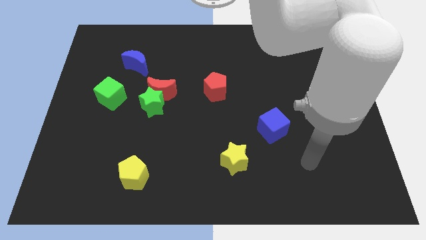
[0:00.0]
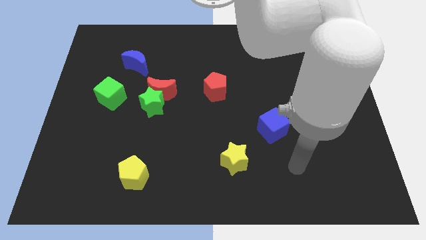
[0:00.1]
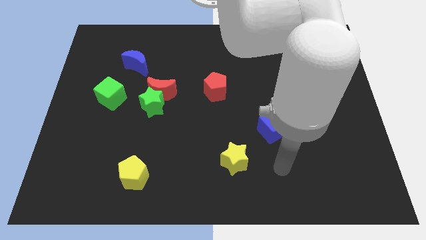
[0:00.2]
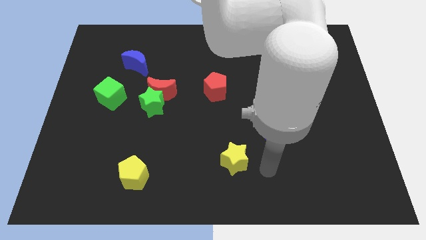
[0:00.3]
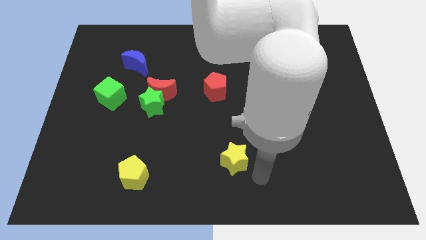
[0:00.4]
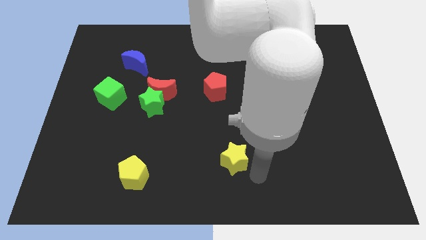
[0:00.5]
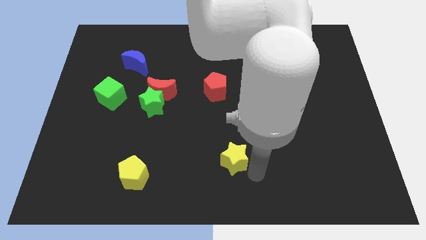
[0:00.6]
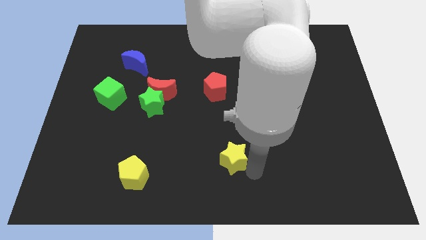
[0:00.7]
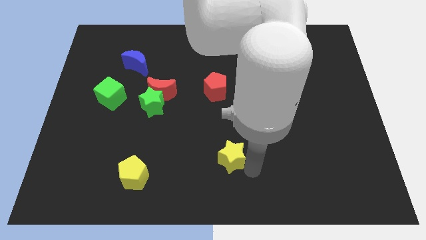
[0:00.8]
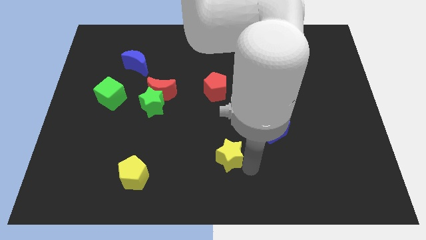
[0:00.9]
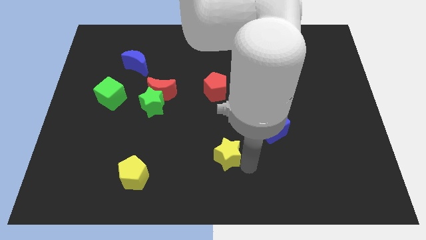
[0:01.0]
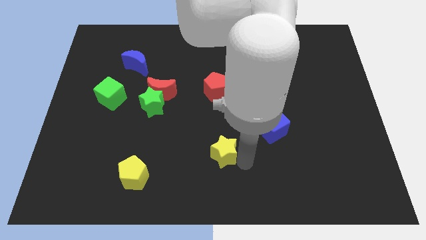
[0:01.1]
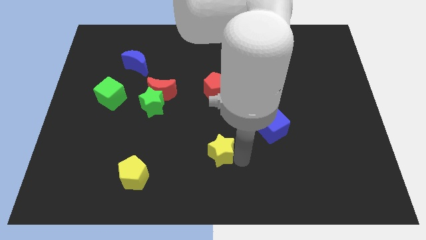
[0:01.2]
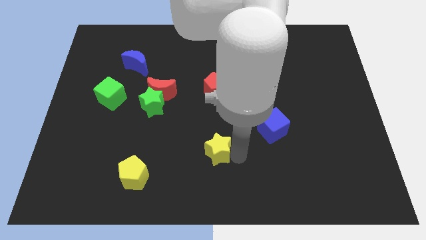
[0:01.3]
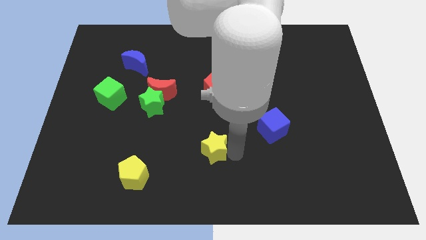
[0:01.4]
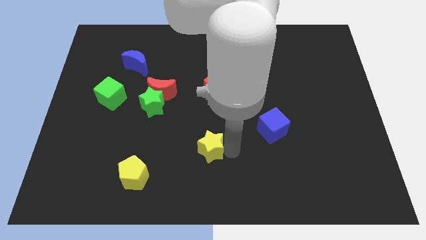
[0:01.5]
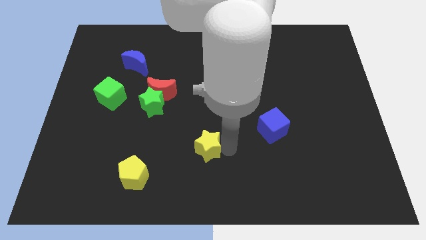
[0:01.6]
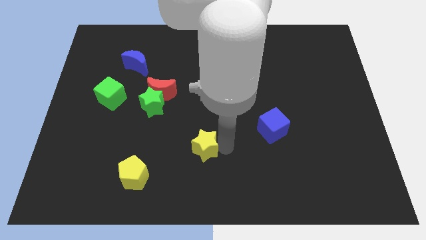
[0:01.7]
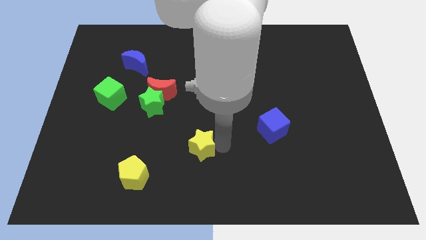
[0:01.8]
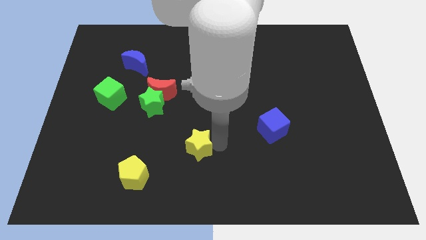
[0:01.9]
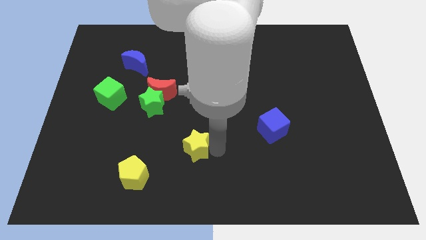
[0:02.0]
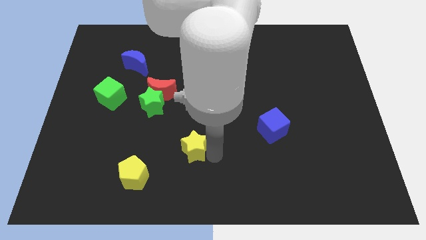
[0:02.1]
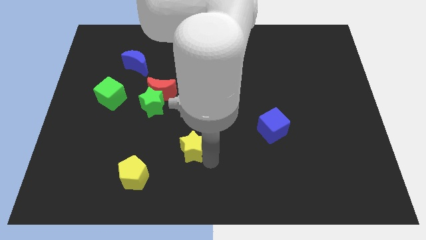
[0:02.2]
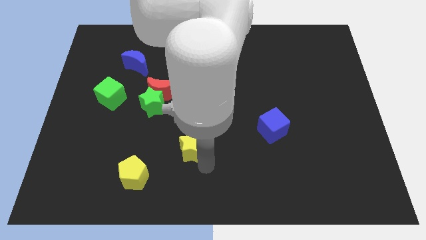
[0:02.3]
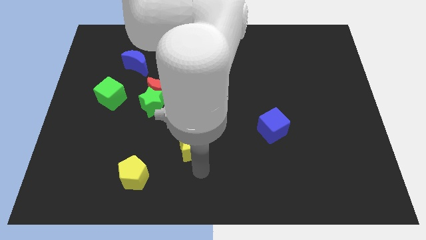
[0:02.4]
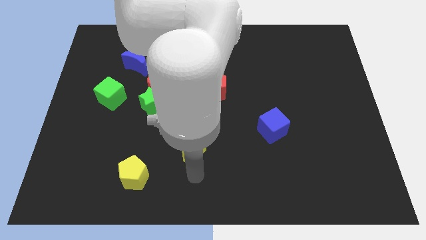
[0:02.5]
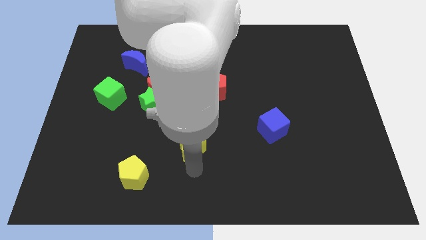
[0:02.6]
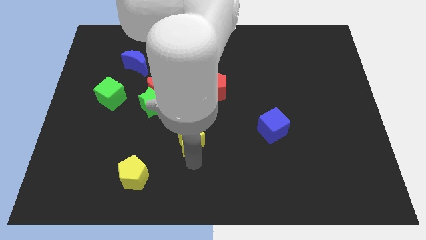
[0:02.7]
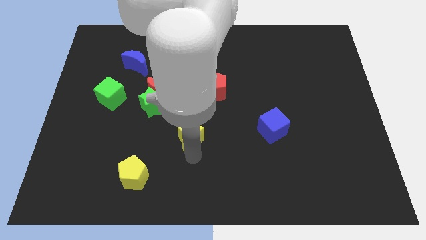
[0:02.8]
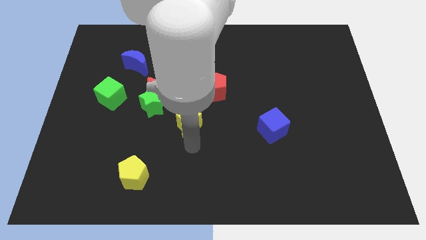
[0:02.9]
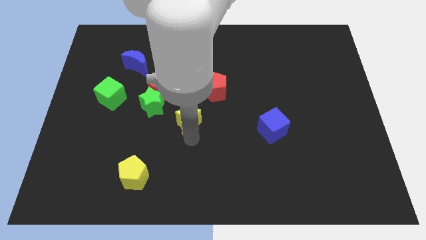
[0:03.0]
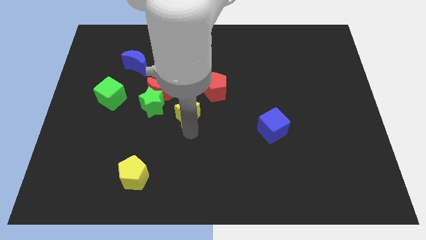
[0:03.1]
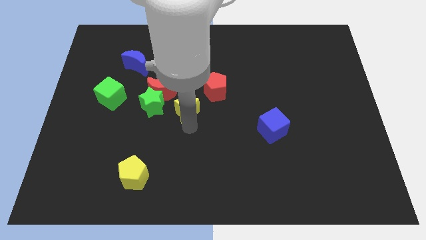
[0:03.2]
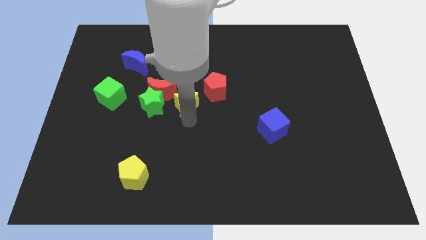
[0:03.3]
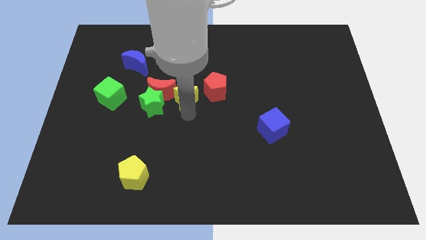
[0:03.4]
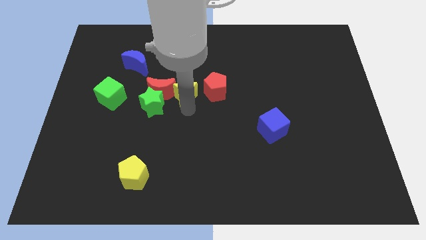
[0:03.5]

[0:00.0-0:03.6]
slide the yellow star upwards and then to the left

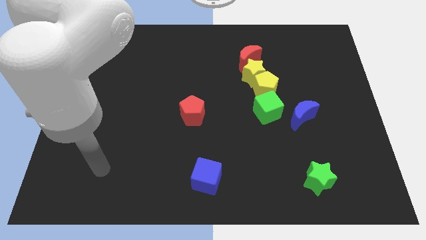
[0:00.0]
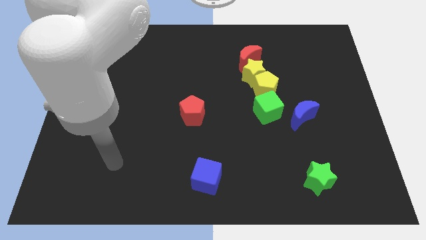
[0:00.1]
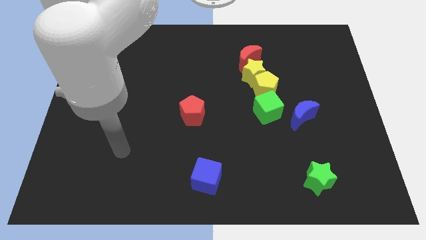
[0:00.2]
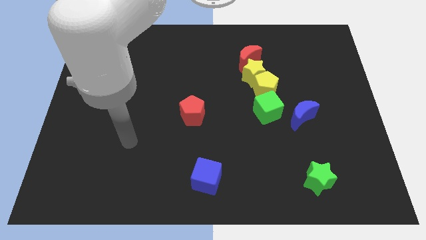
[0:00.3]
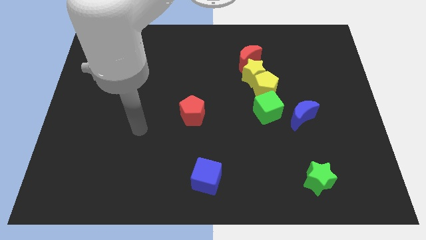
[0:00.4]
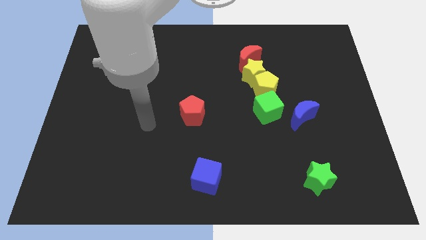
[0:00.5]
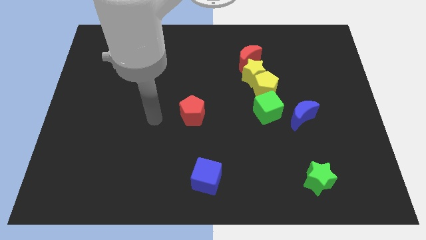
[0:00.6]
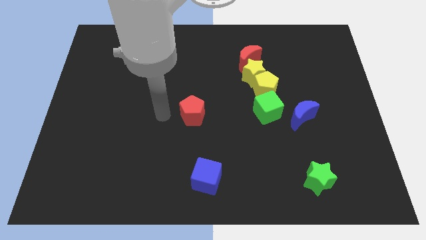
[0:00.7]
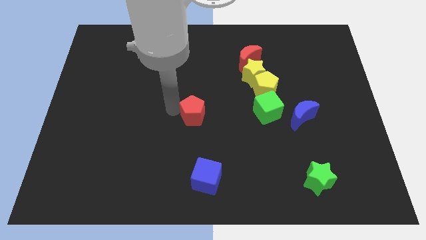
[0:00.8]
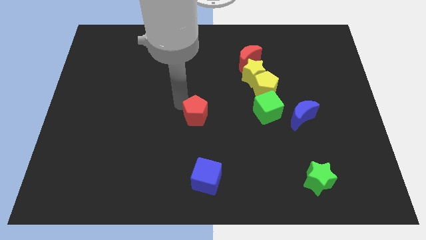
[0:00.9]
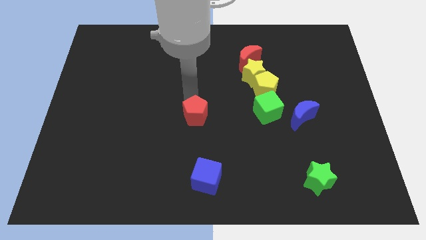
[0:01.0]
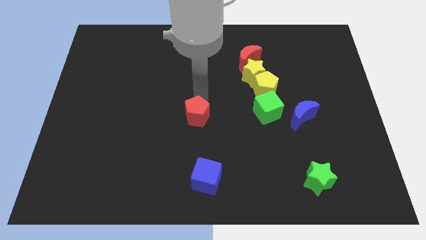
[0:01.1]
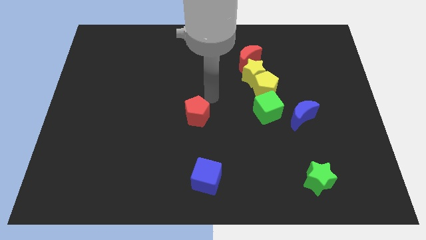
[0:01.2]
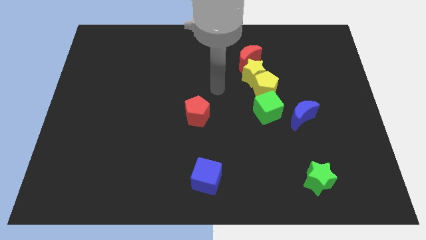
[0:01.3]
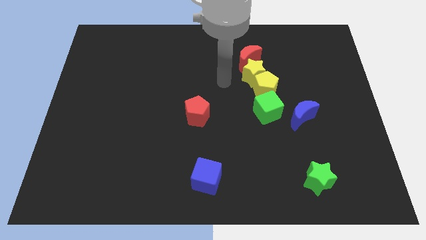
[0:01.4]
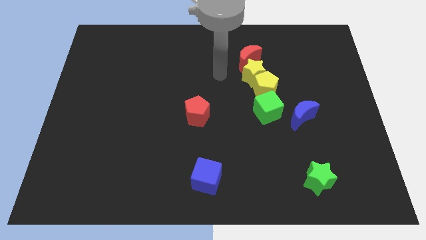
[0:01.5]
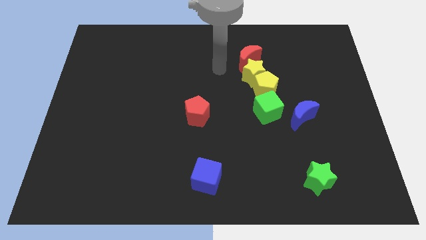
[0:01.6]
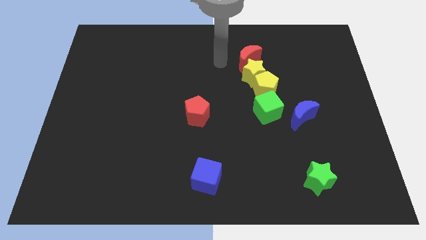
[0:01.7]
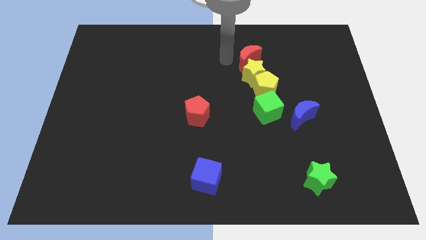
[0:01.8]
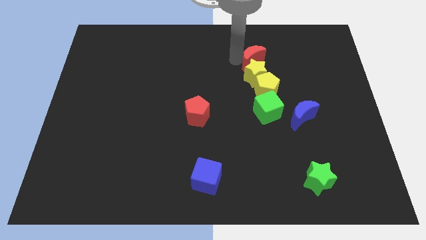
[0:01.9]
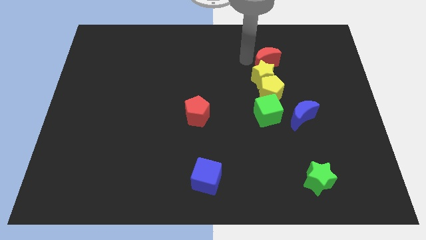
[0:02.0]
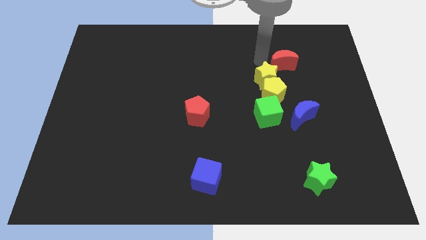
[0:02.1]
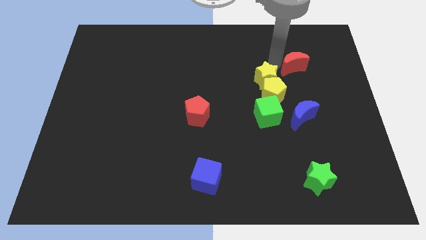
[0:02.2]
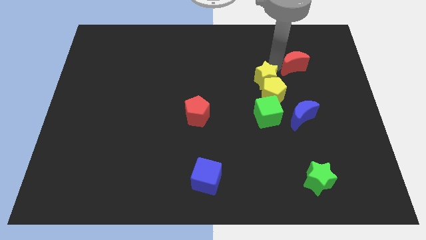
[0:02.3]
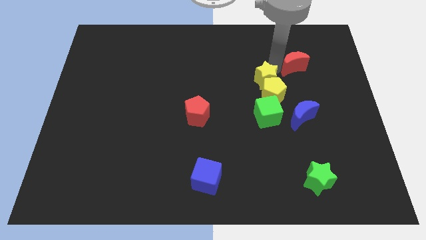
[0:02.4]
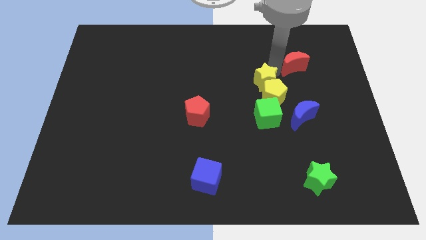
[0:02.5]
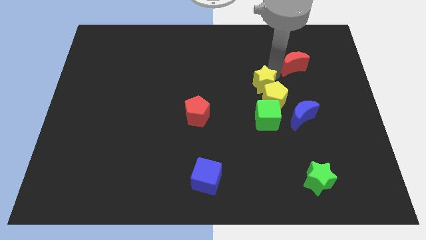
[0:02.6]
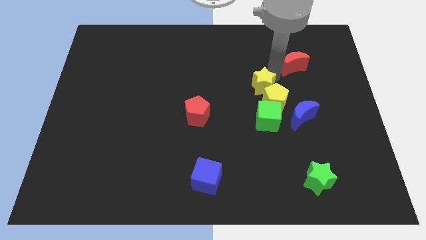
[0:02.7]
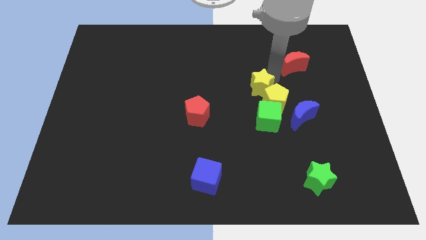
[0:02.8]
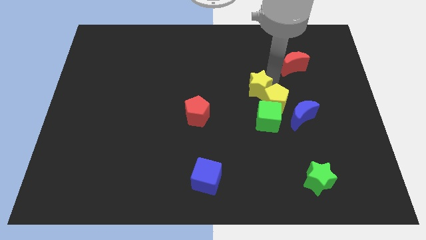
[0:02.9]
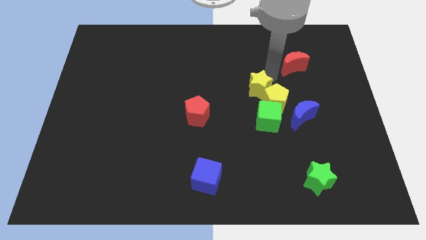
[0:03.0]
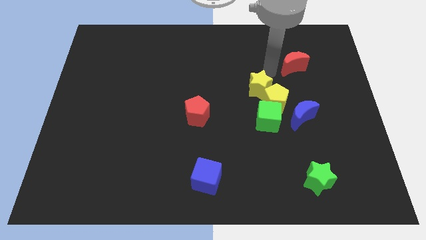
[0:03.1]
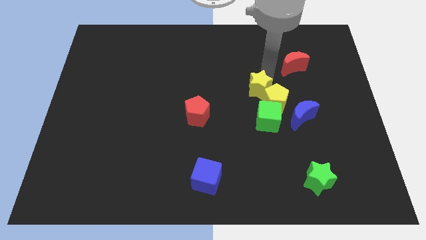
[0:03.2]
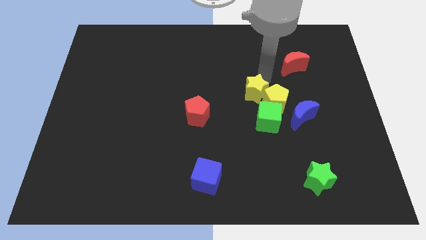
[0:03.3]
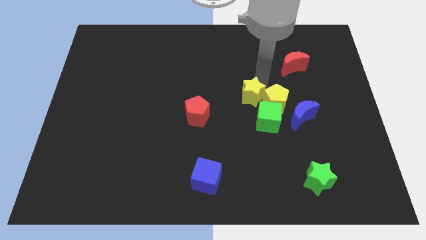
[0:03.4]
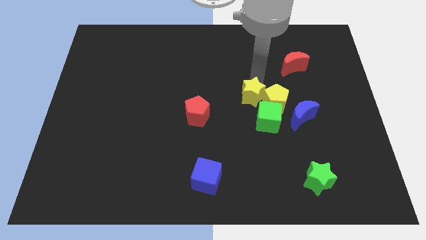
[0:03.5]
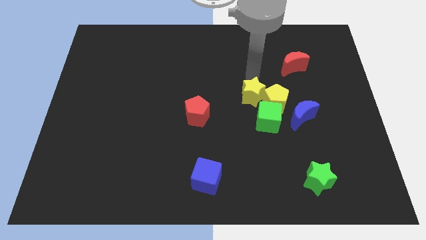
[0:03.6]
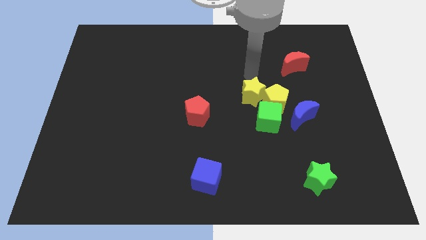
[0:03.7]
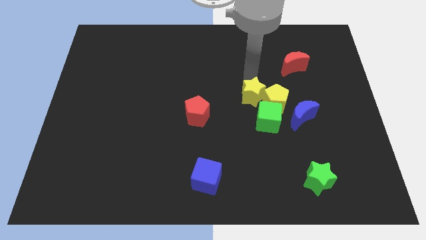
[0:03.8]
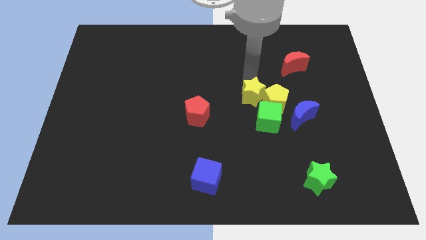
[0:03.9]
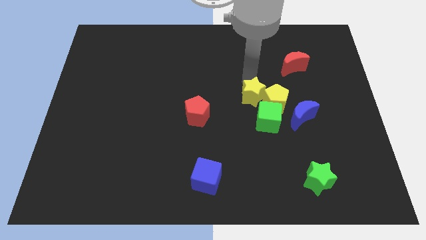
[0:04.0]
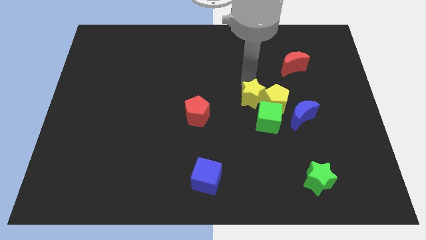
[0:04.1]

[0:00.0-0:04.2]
slide the yellow star downwards somewhat
